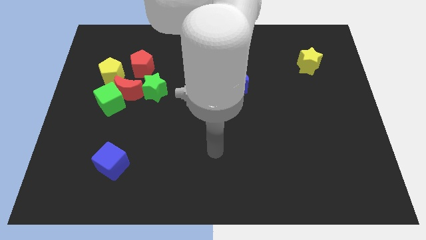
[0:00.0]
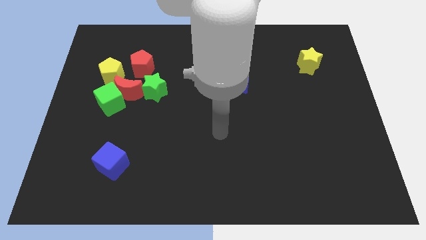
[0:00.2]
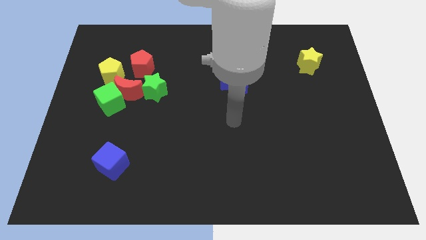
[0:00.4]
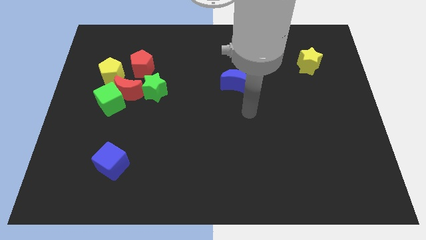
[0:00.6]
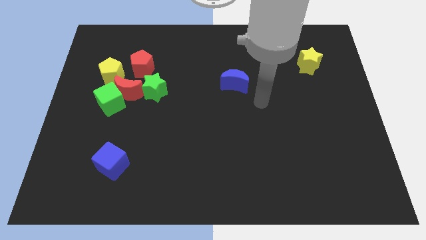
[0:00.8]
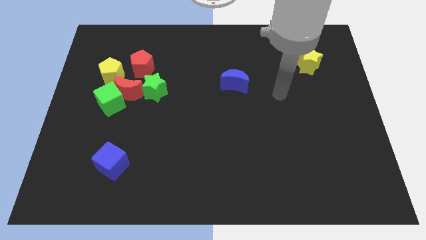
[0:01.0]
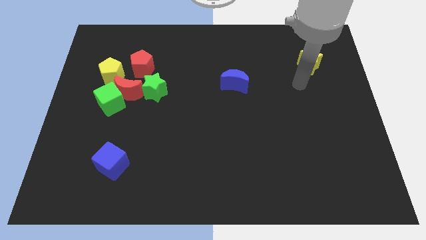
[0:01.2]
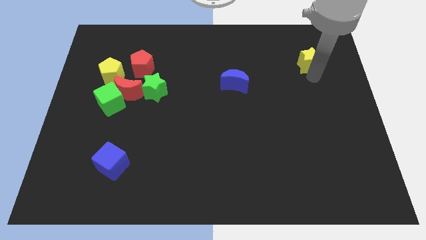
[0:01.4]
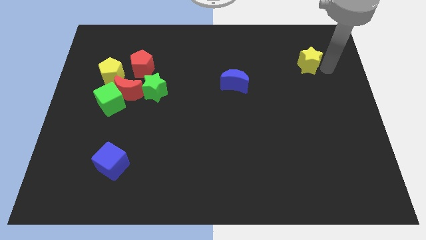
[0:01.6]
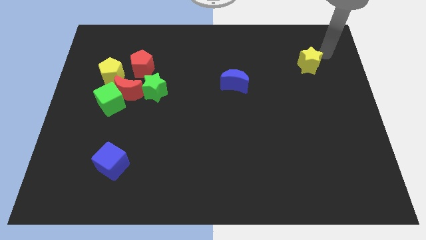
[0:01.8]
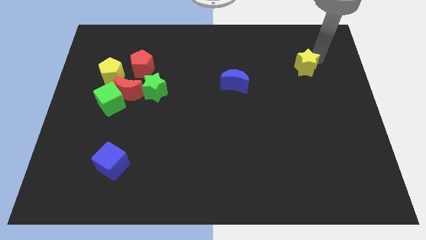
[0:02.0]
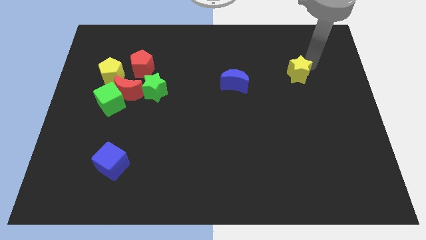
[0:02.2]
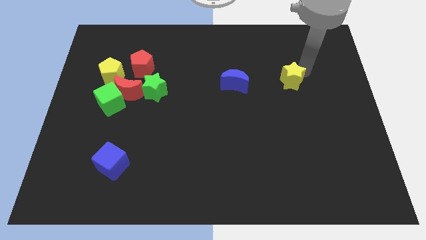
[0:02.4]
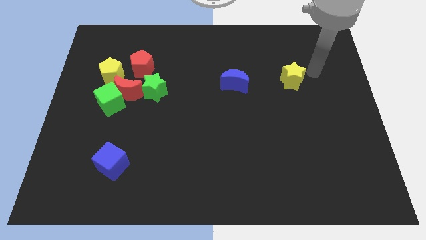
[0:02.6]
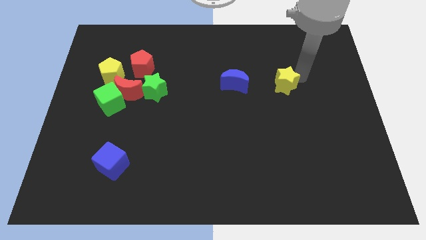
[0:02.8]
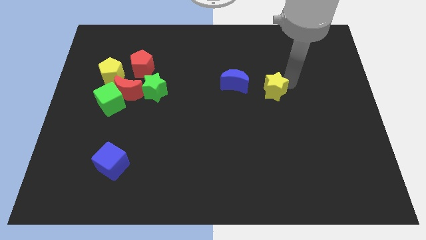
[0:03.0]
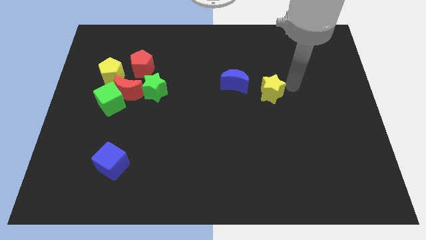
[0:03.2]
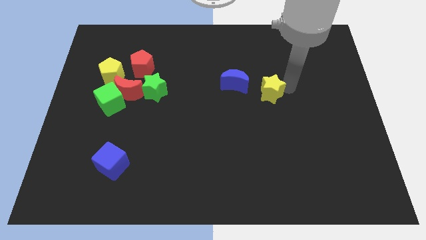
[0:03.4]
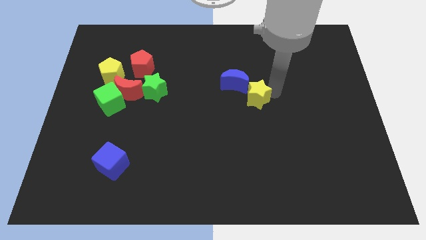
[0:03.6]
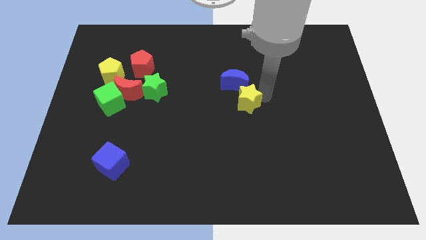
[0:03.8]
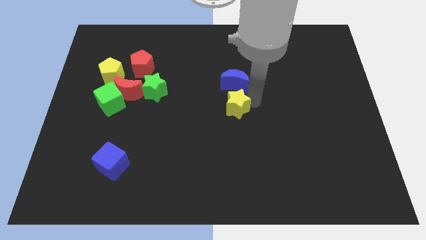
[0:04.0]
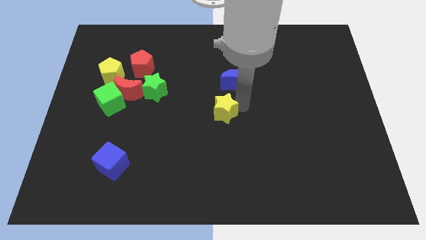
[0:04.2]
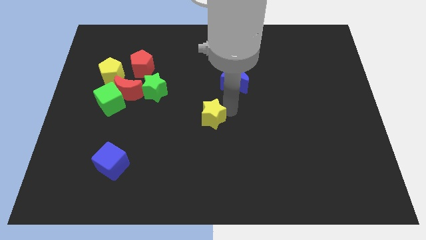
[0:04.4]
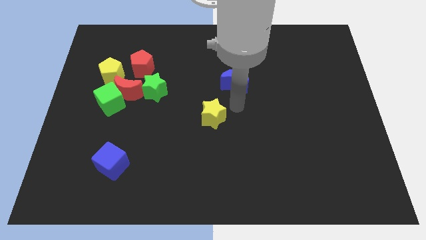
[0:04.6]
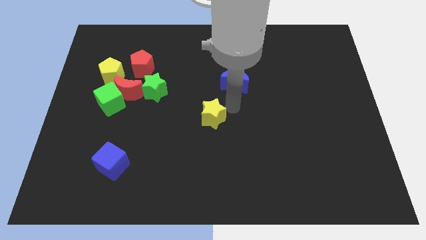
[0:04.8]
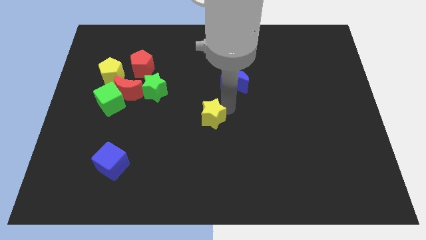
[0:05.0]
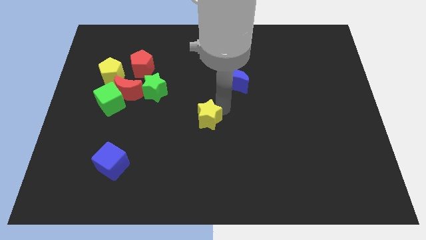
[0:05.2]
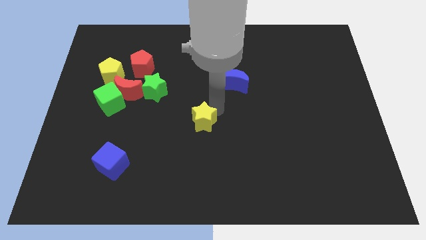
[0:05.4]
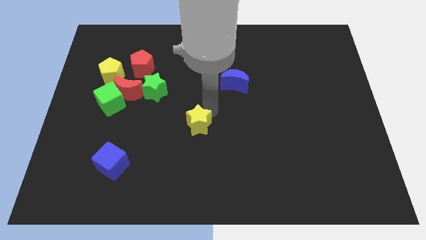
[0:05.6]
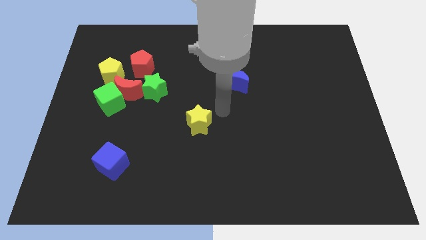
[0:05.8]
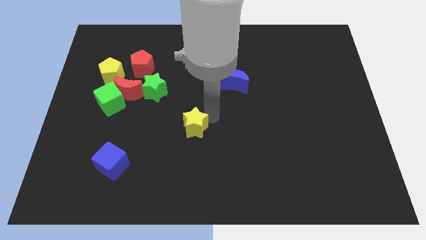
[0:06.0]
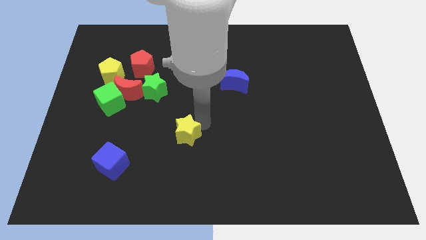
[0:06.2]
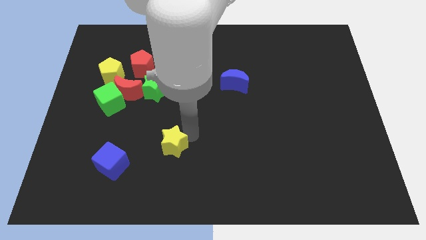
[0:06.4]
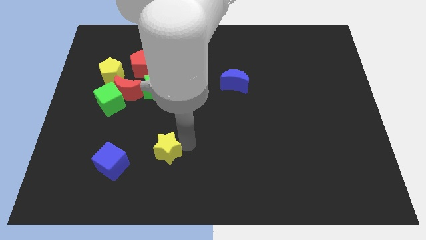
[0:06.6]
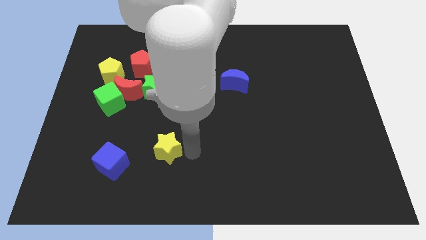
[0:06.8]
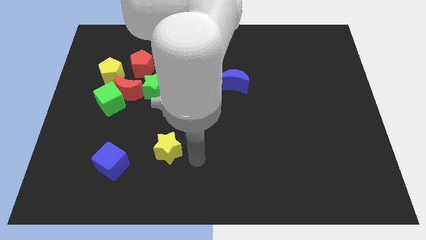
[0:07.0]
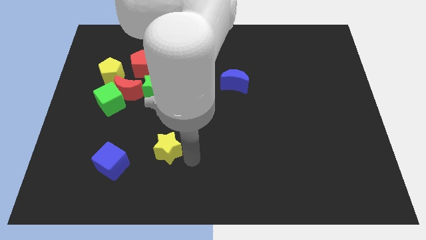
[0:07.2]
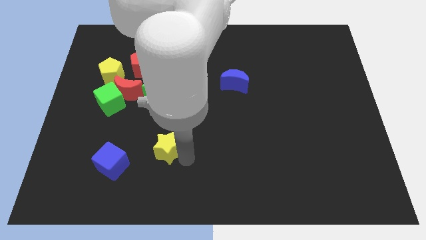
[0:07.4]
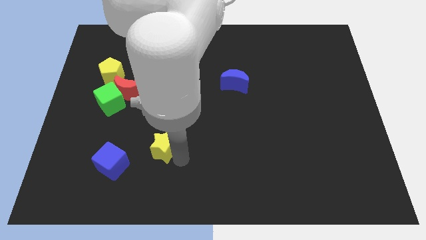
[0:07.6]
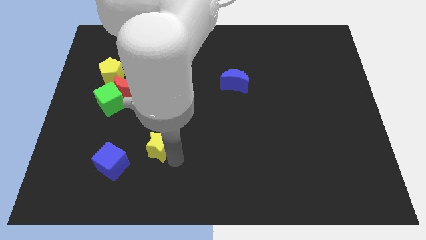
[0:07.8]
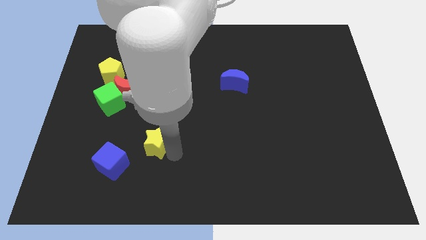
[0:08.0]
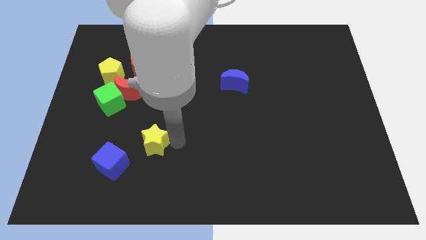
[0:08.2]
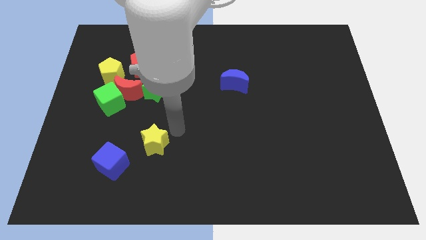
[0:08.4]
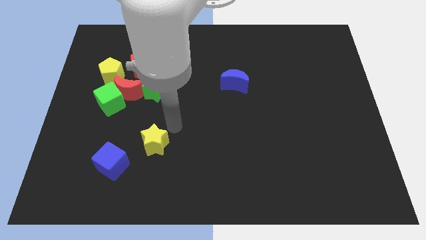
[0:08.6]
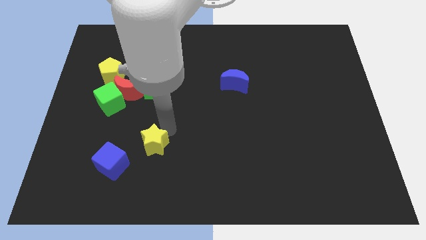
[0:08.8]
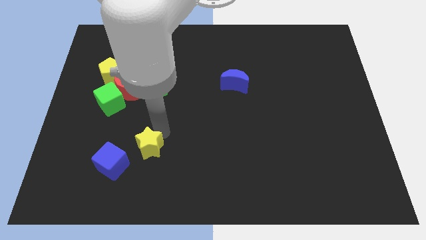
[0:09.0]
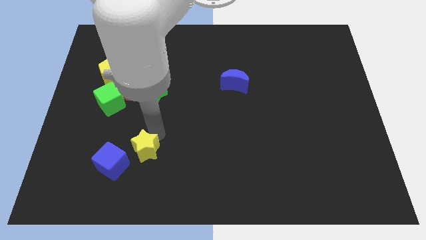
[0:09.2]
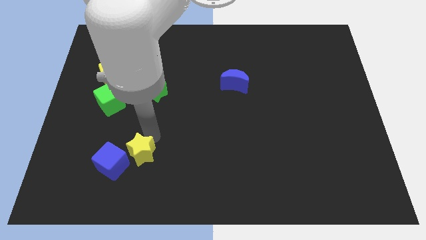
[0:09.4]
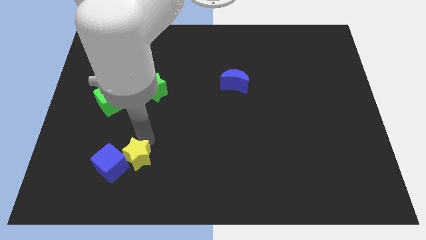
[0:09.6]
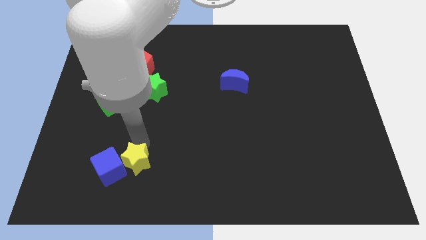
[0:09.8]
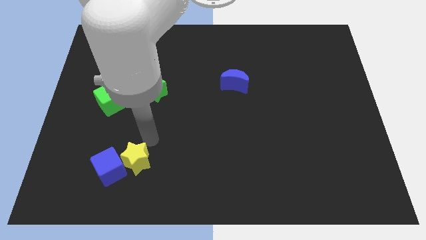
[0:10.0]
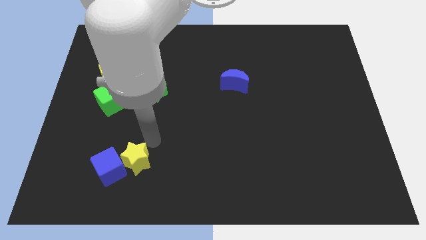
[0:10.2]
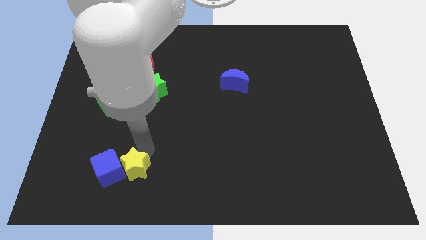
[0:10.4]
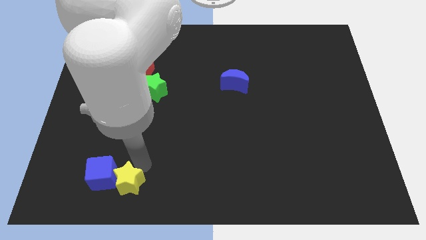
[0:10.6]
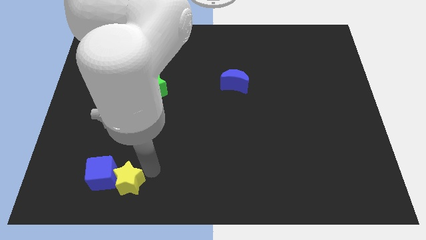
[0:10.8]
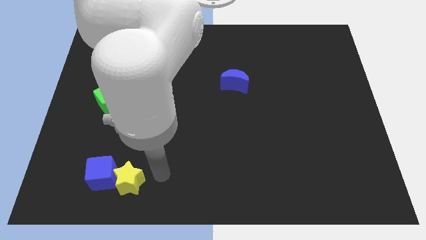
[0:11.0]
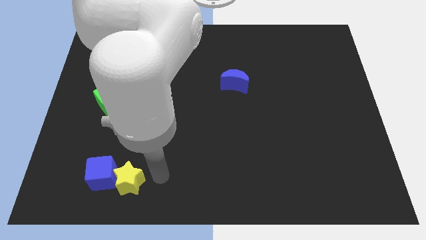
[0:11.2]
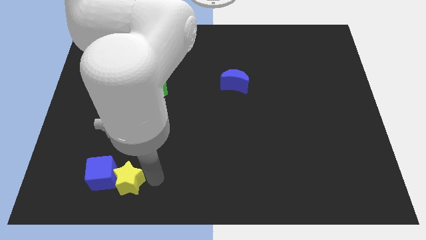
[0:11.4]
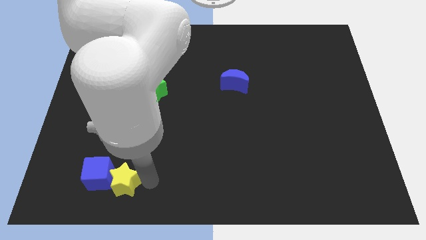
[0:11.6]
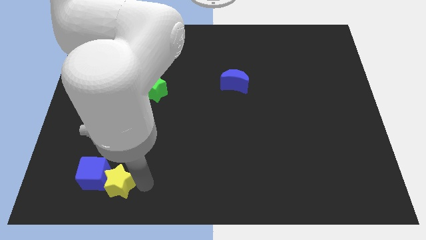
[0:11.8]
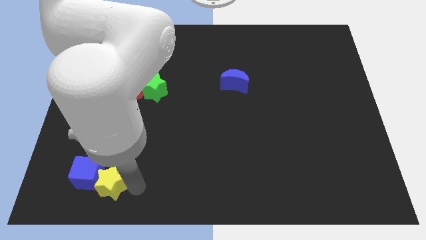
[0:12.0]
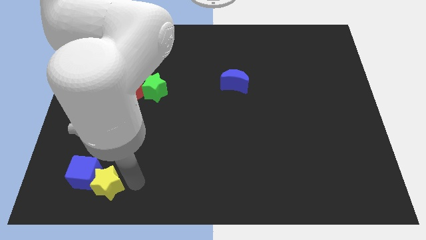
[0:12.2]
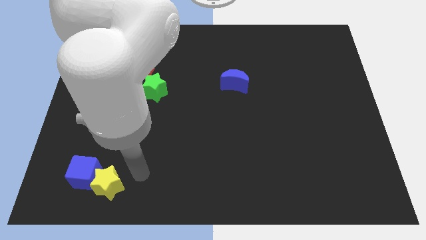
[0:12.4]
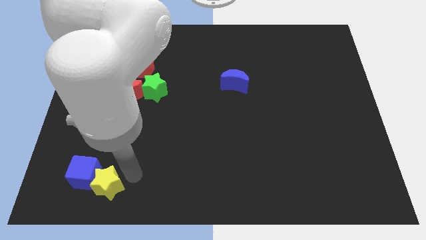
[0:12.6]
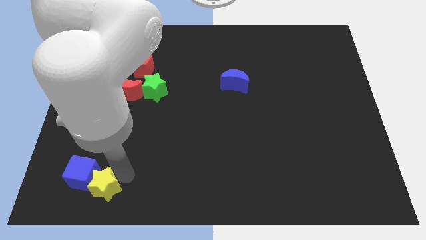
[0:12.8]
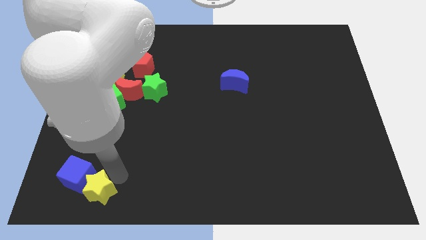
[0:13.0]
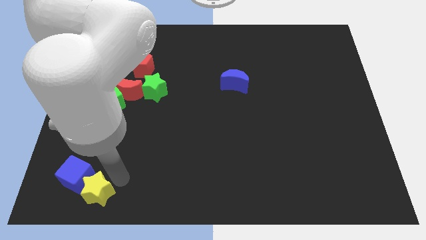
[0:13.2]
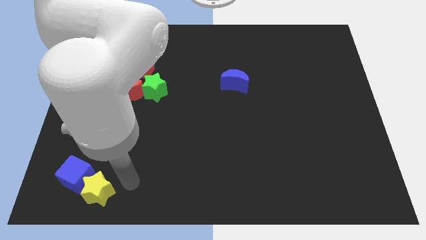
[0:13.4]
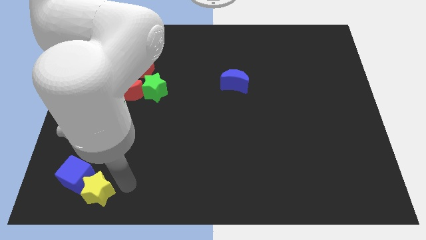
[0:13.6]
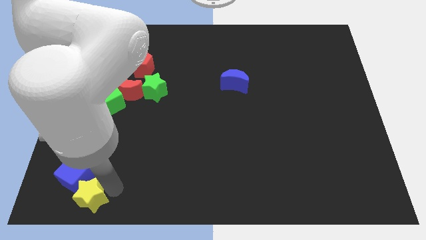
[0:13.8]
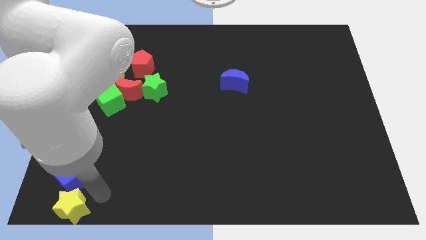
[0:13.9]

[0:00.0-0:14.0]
move the yellow star to the bottom left corner

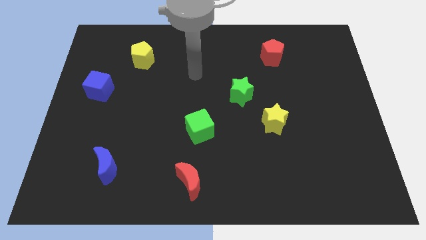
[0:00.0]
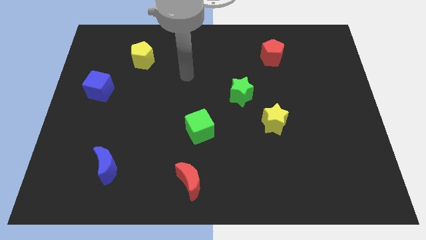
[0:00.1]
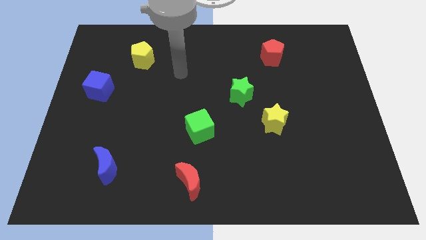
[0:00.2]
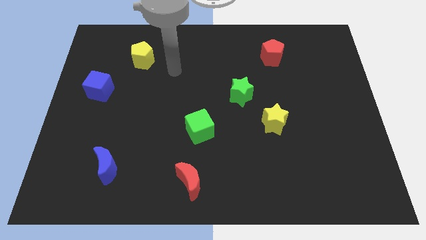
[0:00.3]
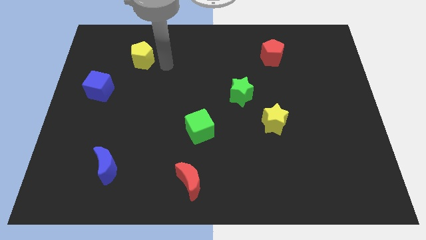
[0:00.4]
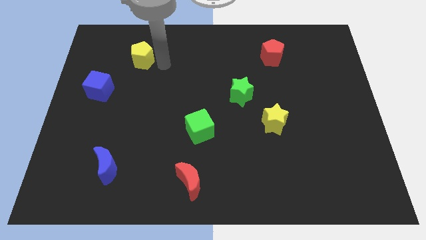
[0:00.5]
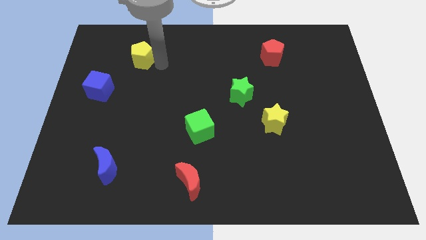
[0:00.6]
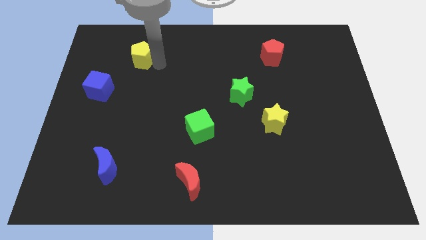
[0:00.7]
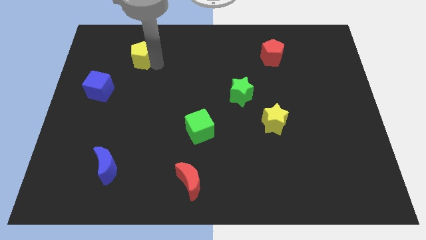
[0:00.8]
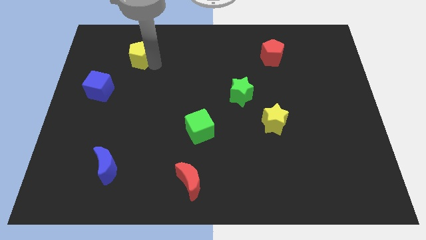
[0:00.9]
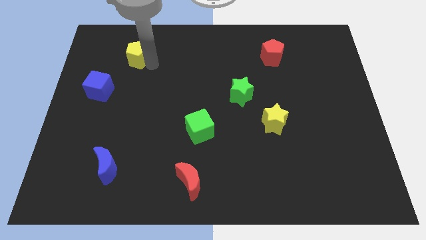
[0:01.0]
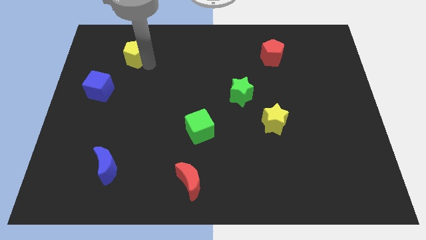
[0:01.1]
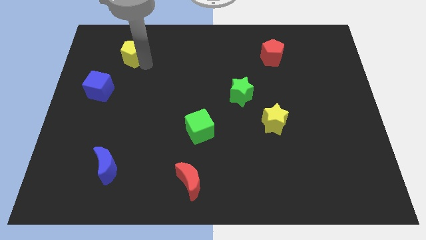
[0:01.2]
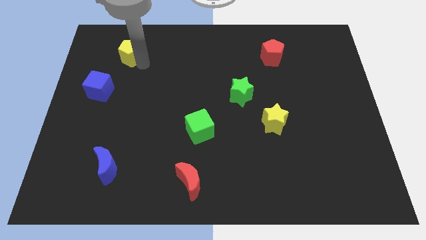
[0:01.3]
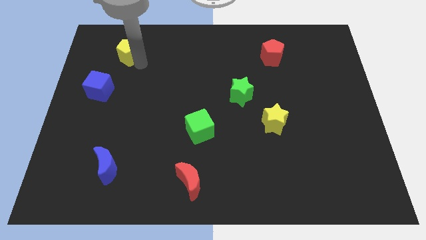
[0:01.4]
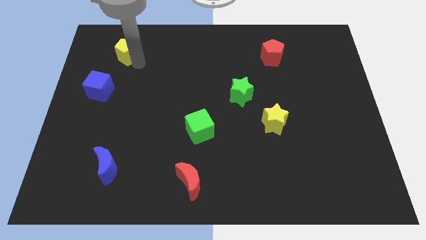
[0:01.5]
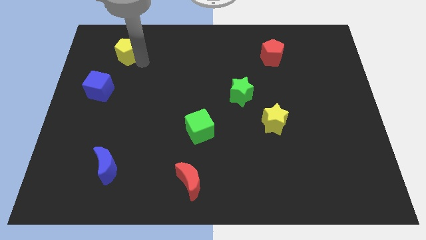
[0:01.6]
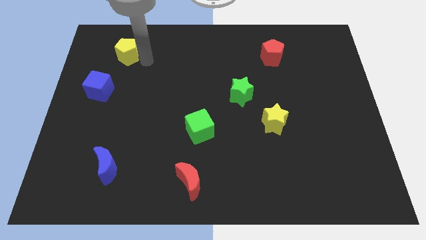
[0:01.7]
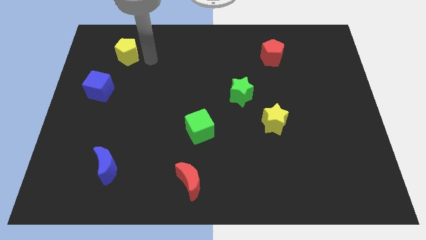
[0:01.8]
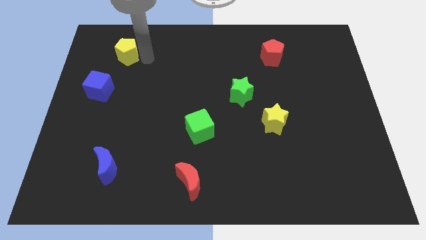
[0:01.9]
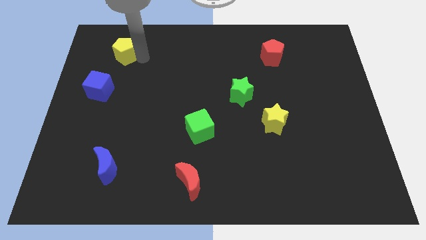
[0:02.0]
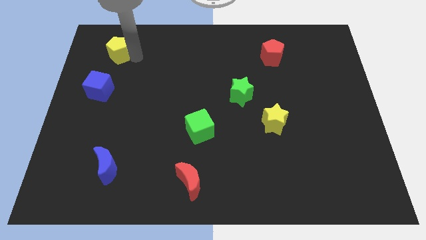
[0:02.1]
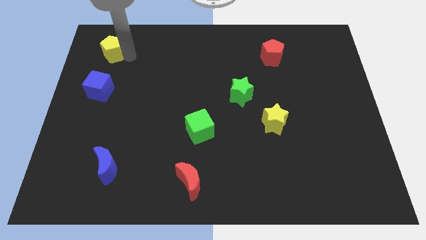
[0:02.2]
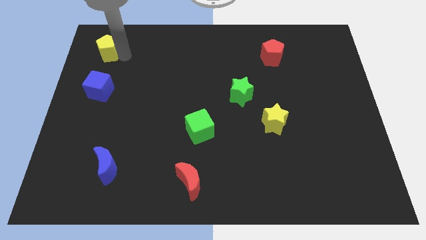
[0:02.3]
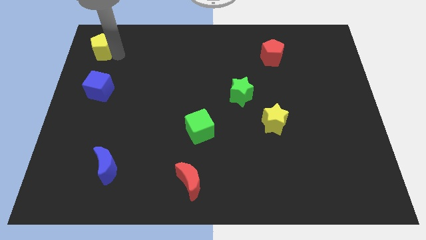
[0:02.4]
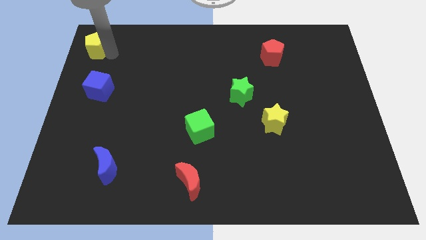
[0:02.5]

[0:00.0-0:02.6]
slide the yellow pentagon to the top left of the board
